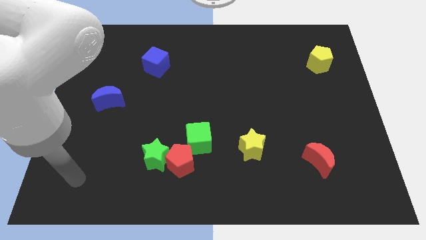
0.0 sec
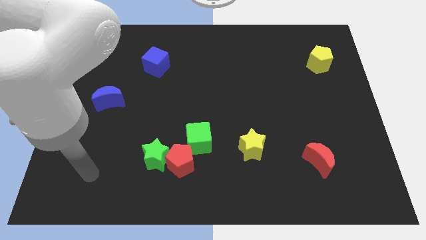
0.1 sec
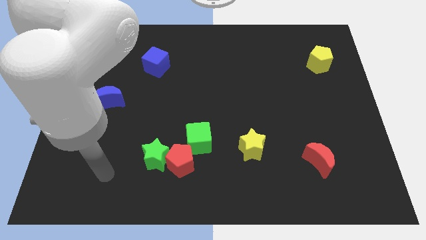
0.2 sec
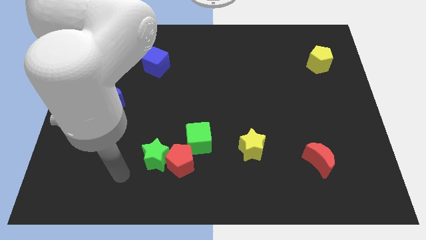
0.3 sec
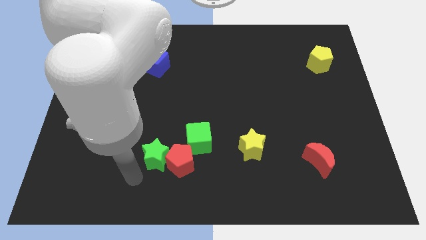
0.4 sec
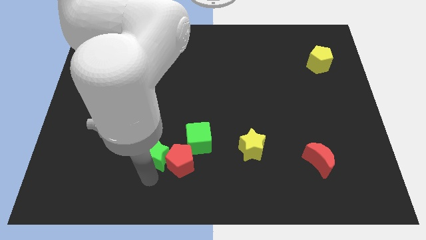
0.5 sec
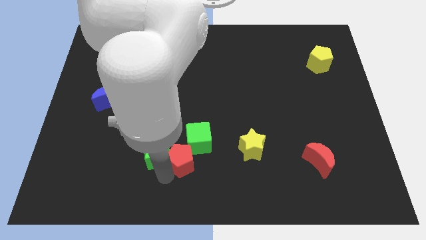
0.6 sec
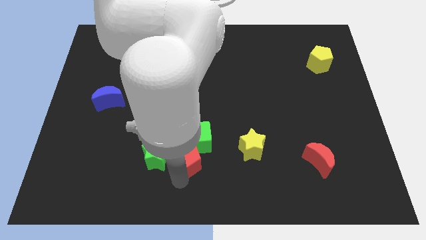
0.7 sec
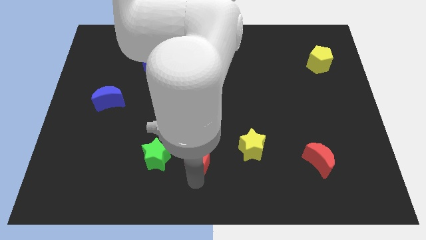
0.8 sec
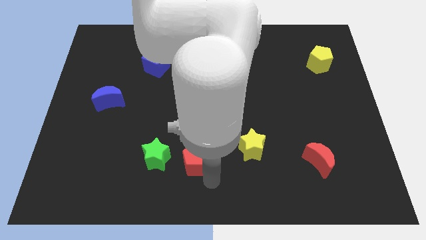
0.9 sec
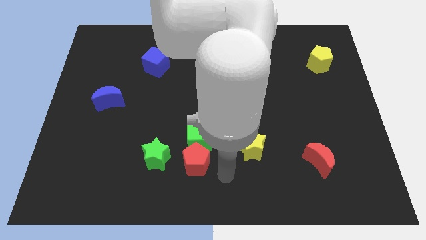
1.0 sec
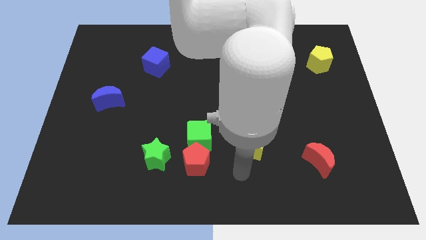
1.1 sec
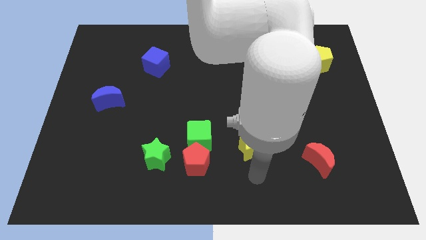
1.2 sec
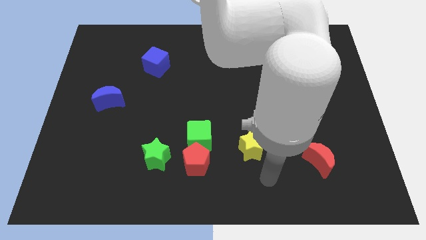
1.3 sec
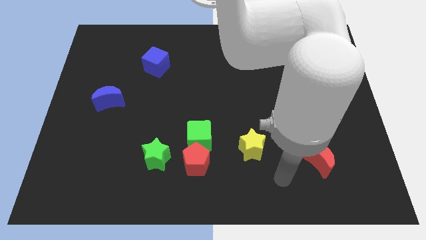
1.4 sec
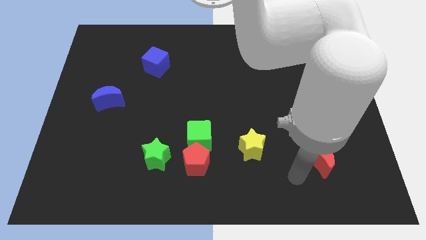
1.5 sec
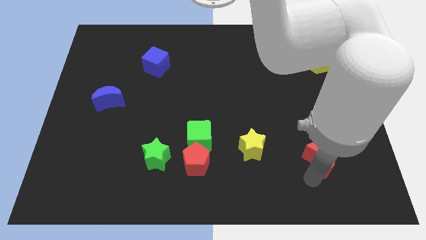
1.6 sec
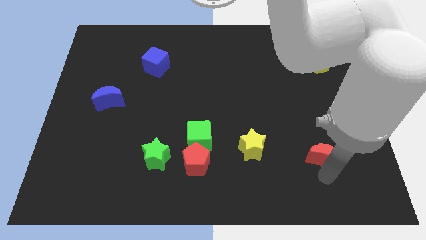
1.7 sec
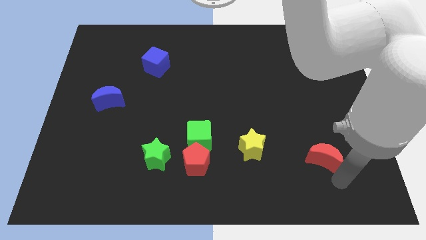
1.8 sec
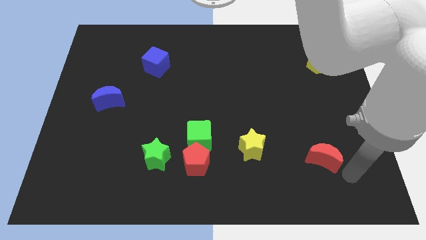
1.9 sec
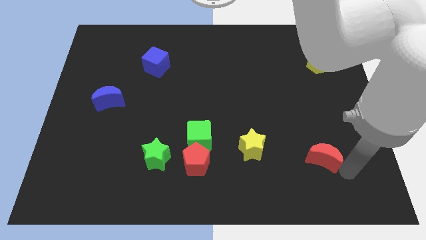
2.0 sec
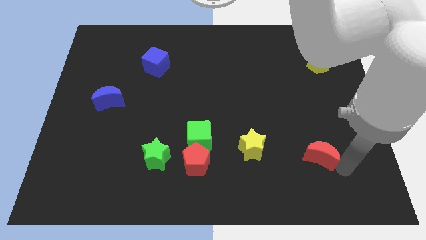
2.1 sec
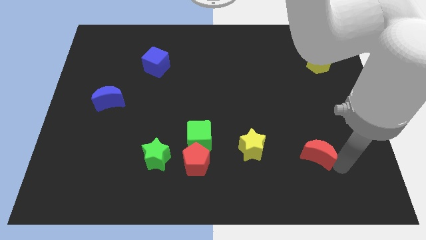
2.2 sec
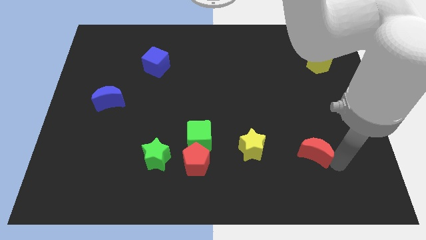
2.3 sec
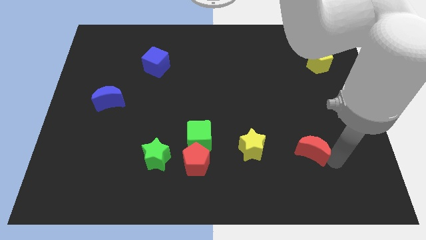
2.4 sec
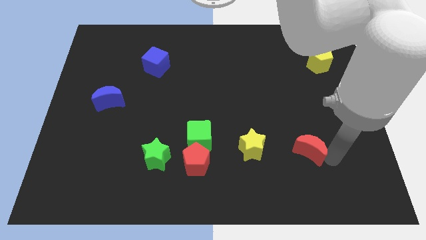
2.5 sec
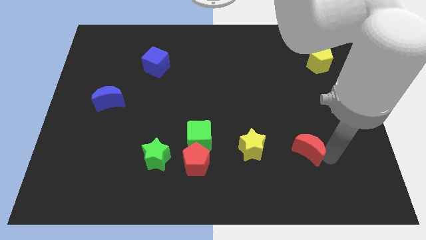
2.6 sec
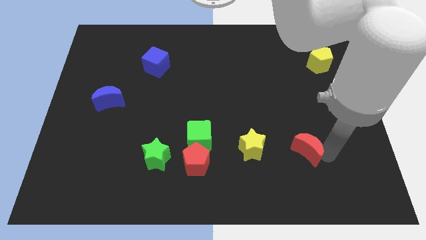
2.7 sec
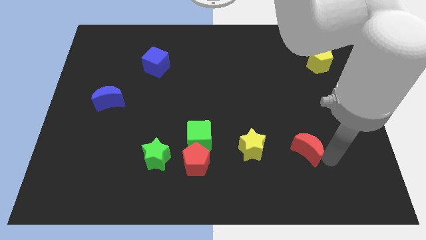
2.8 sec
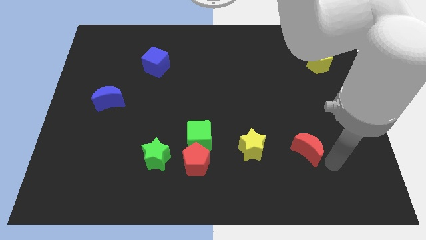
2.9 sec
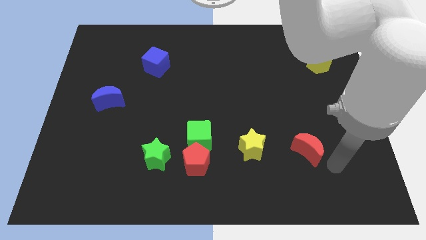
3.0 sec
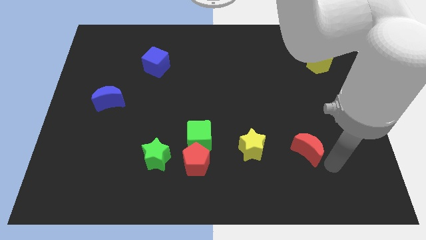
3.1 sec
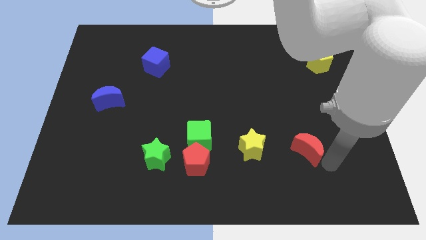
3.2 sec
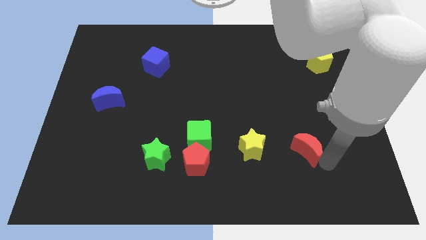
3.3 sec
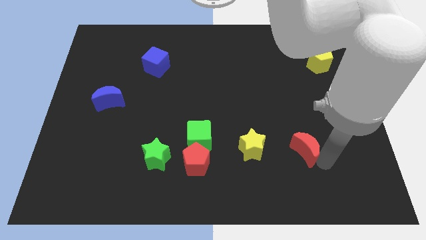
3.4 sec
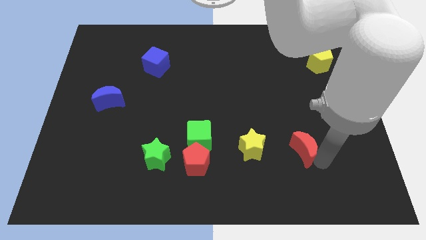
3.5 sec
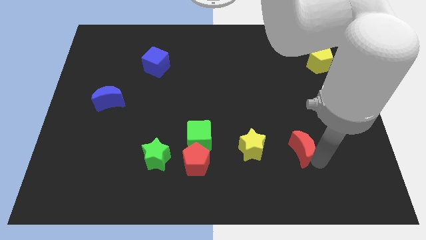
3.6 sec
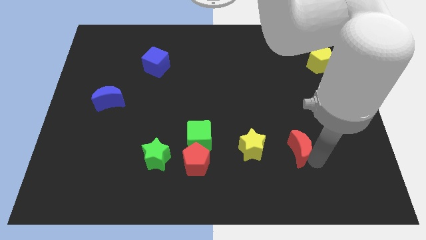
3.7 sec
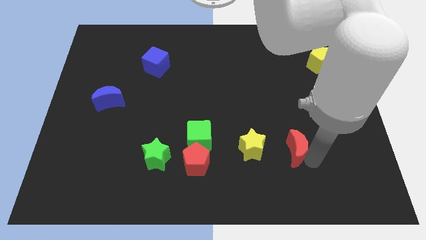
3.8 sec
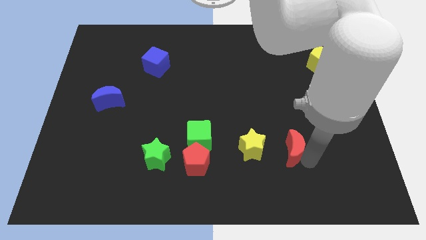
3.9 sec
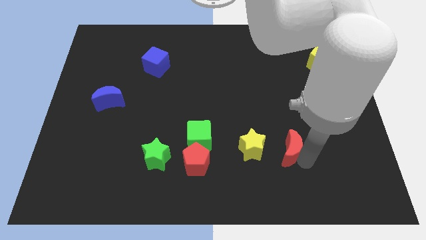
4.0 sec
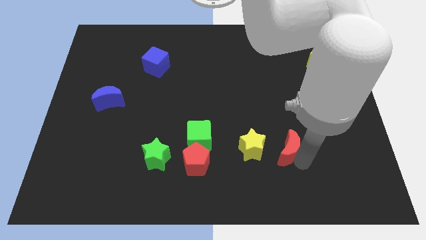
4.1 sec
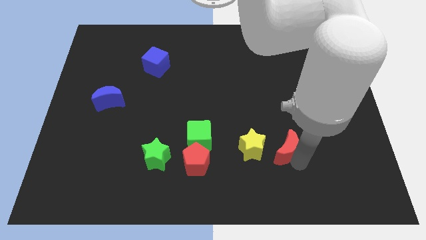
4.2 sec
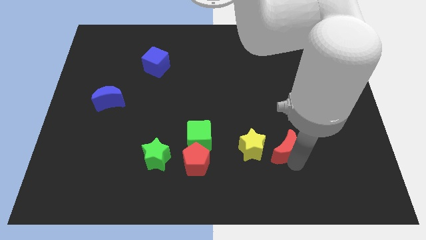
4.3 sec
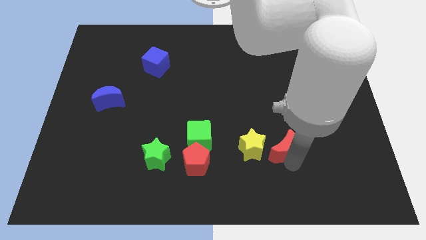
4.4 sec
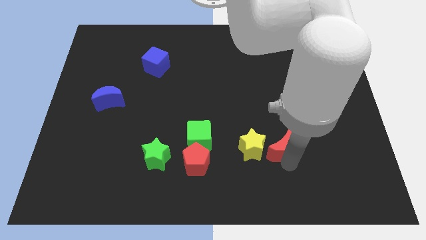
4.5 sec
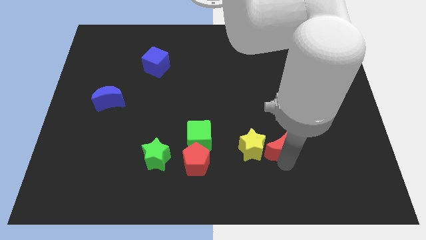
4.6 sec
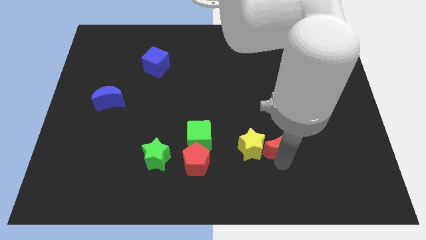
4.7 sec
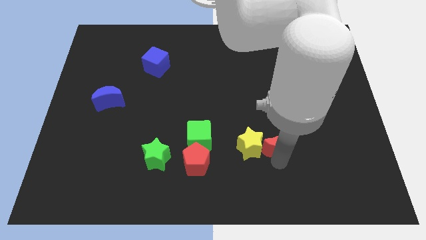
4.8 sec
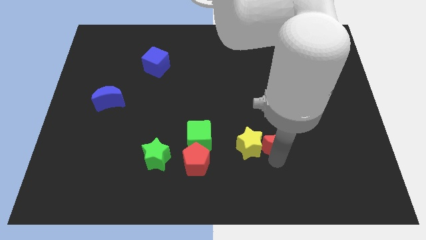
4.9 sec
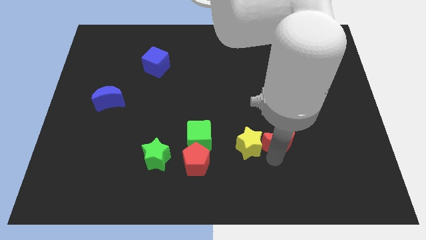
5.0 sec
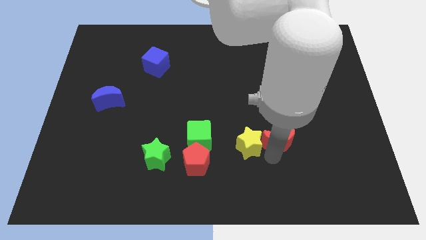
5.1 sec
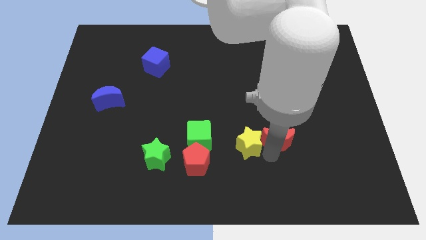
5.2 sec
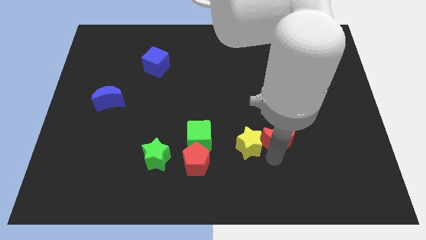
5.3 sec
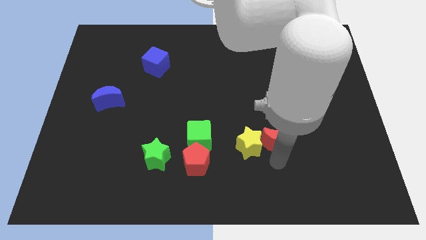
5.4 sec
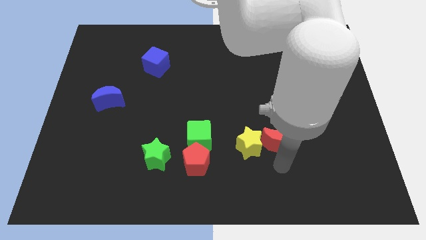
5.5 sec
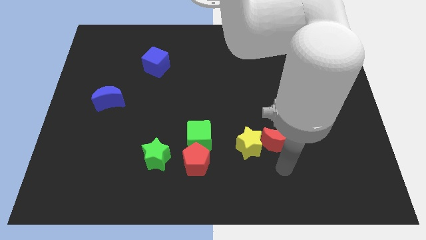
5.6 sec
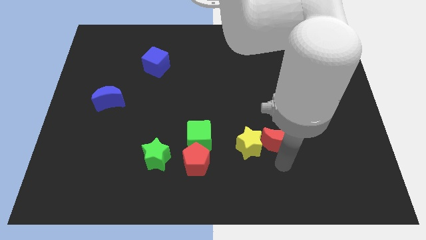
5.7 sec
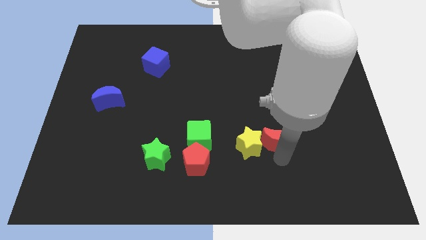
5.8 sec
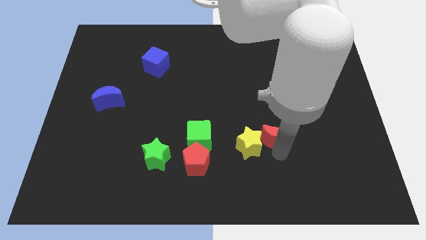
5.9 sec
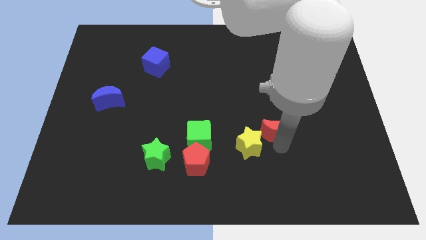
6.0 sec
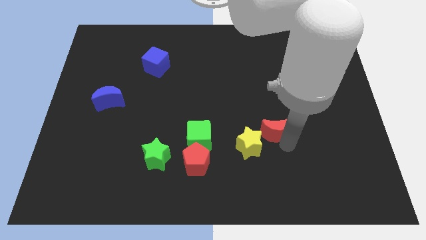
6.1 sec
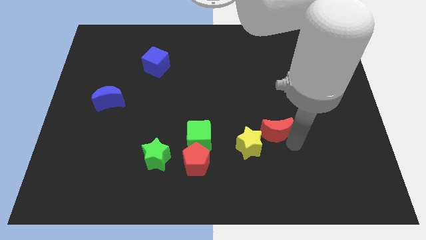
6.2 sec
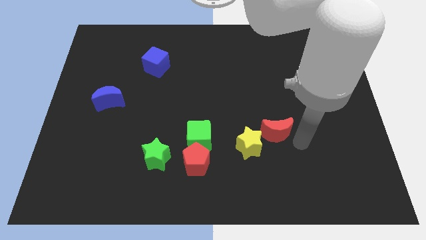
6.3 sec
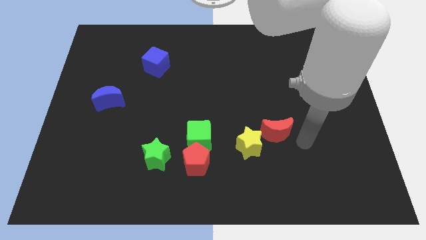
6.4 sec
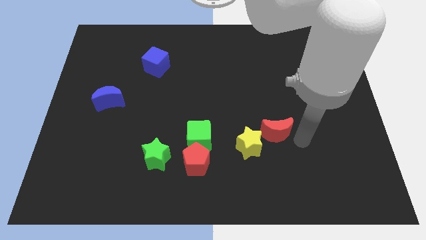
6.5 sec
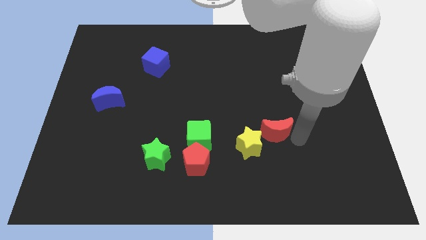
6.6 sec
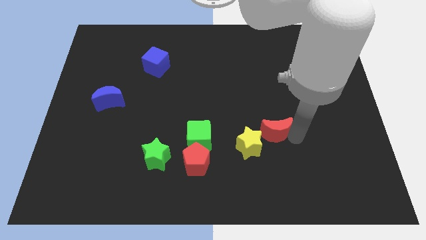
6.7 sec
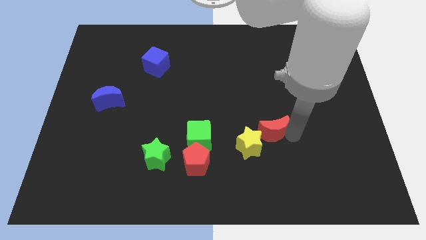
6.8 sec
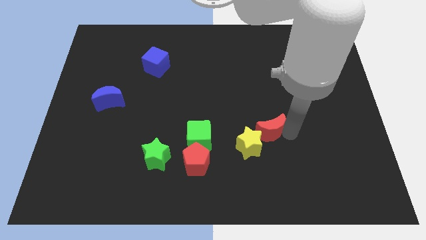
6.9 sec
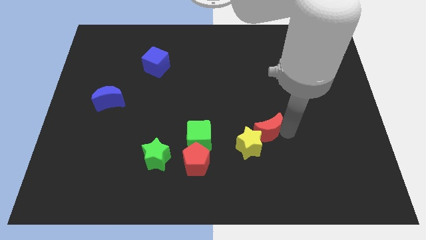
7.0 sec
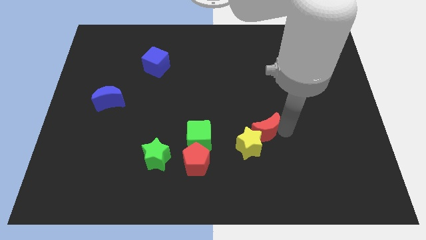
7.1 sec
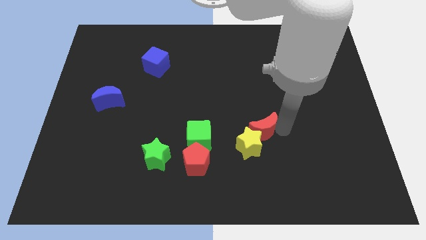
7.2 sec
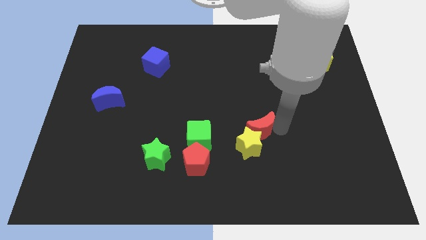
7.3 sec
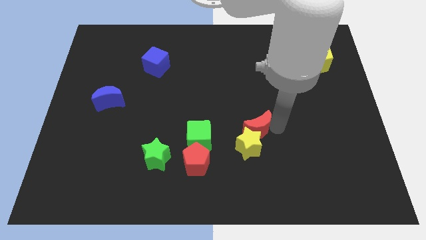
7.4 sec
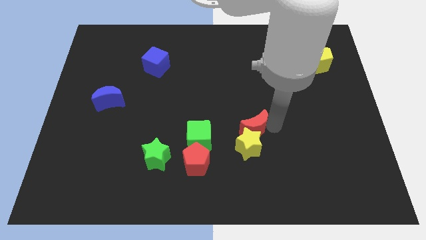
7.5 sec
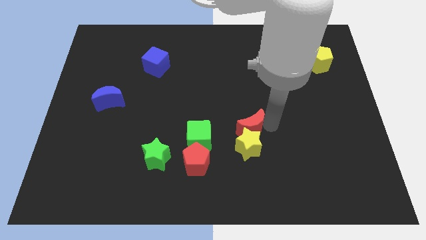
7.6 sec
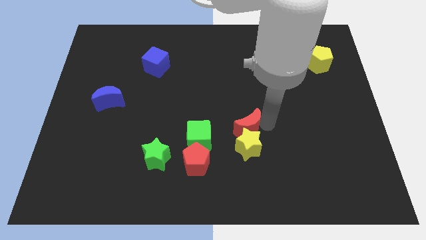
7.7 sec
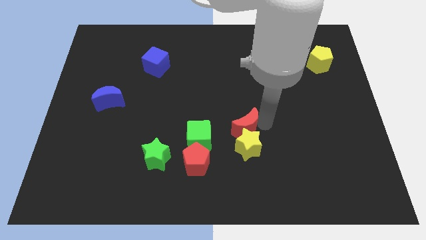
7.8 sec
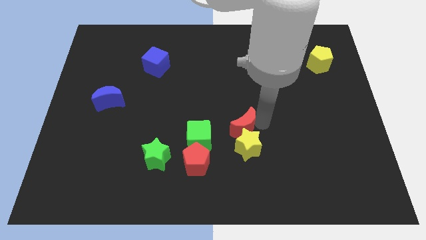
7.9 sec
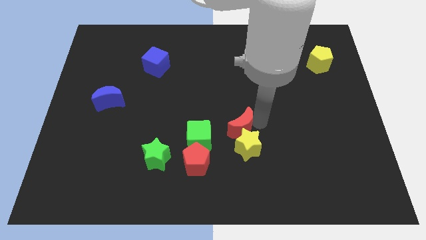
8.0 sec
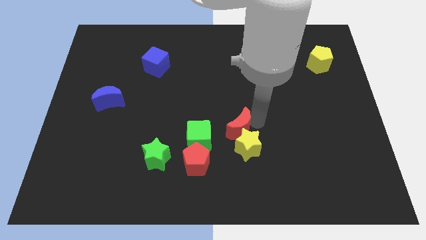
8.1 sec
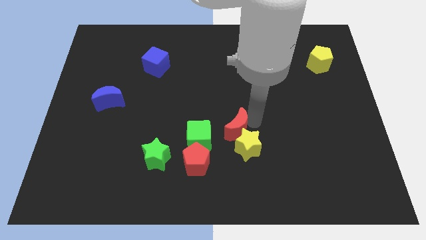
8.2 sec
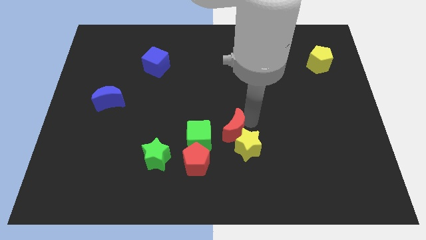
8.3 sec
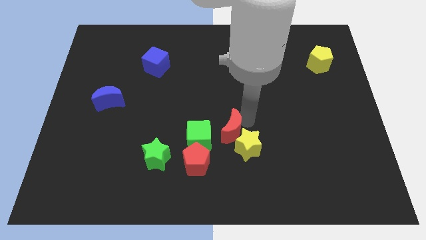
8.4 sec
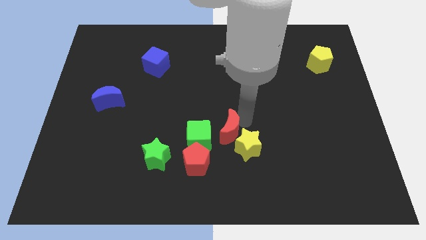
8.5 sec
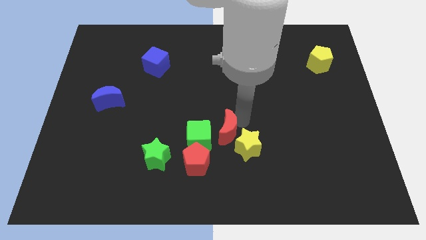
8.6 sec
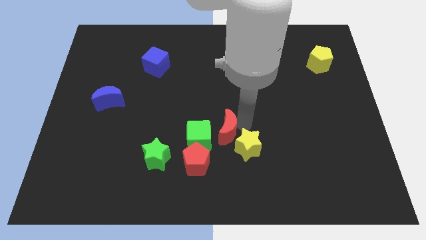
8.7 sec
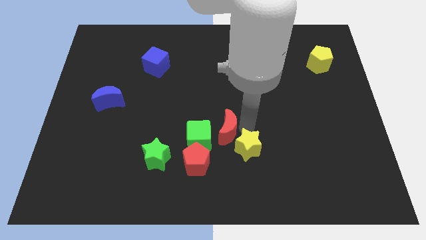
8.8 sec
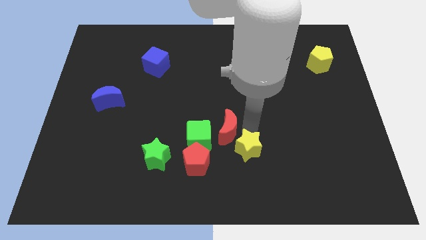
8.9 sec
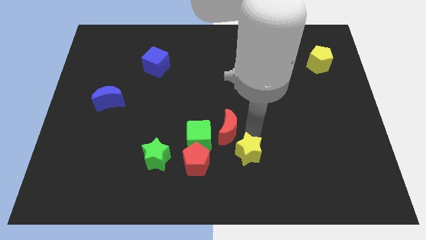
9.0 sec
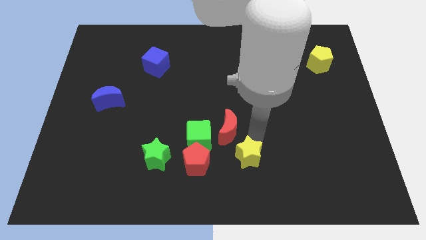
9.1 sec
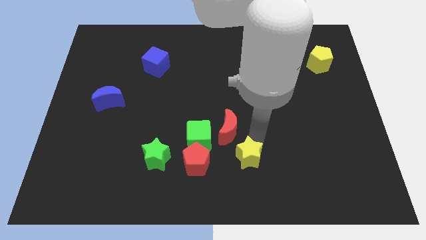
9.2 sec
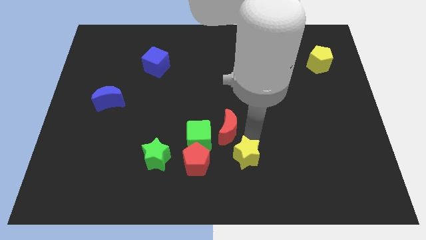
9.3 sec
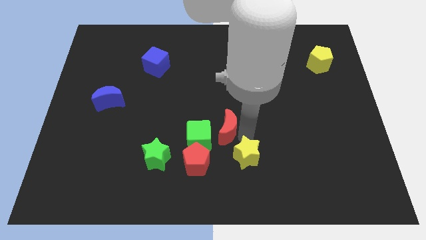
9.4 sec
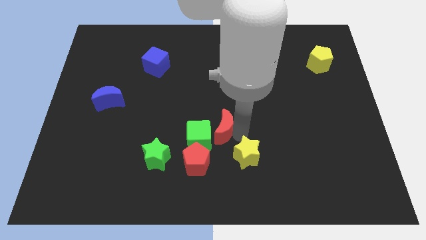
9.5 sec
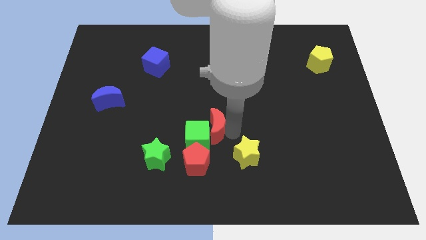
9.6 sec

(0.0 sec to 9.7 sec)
slide the red moon above the red pentagon
